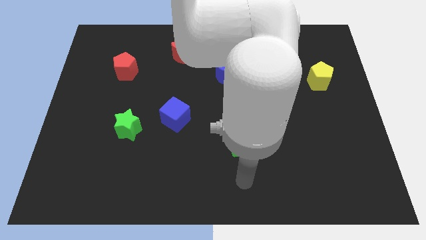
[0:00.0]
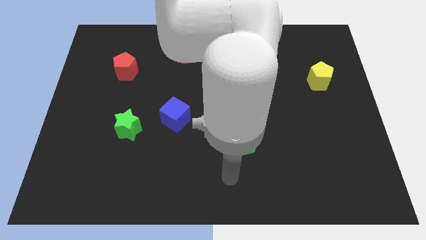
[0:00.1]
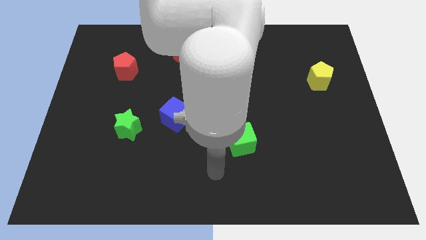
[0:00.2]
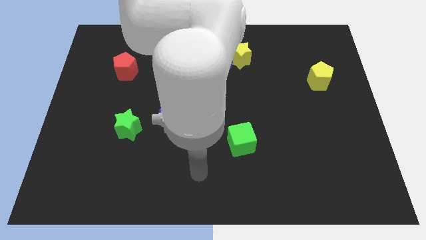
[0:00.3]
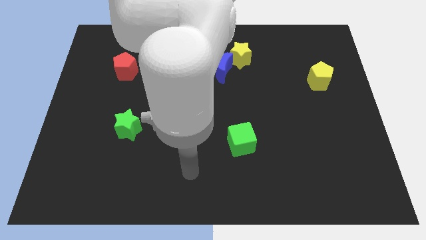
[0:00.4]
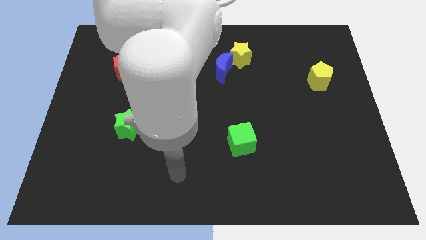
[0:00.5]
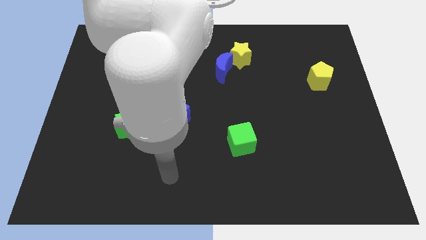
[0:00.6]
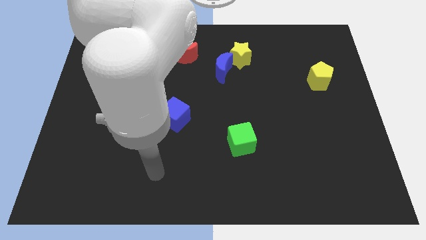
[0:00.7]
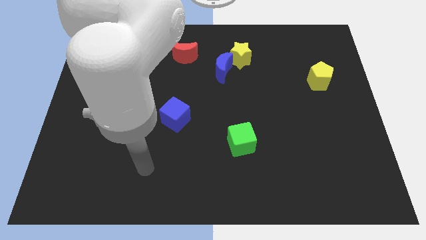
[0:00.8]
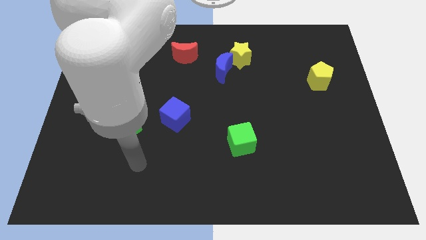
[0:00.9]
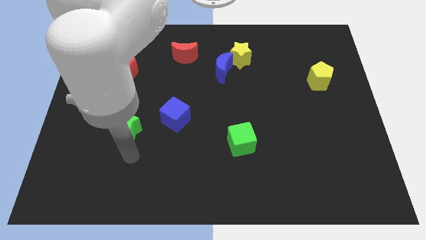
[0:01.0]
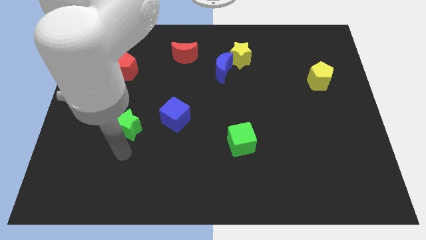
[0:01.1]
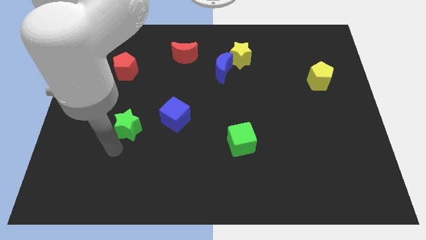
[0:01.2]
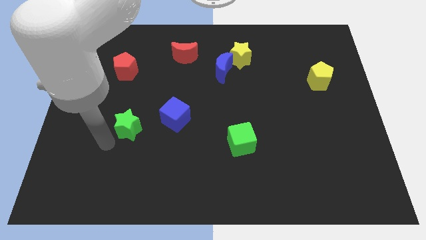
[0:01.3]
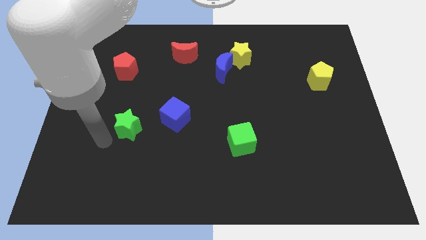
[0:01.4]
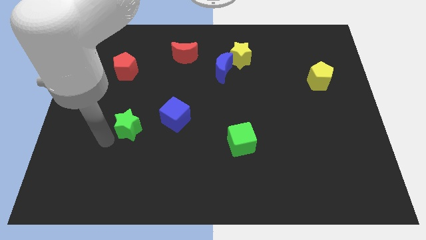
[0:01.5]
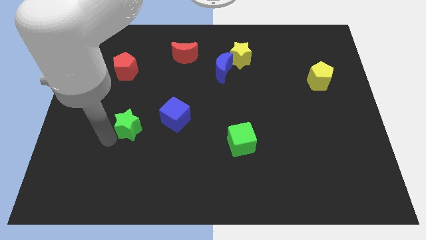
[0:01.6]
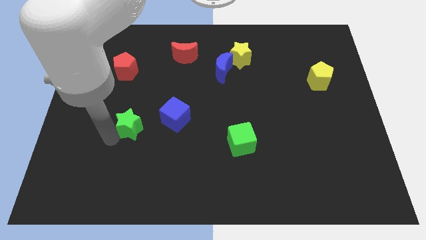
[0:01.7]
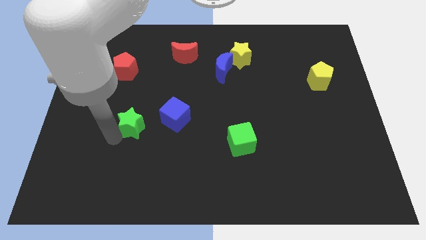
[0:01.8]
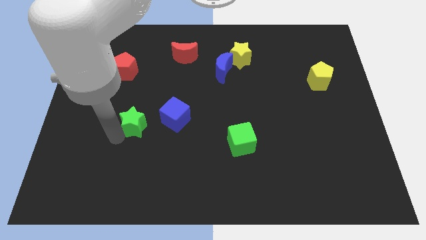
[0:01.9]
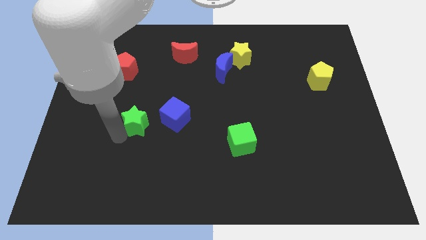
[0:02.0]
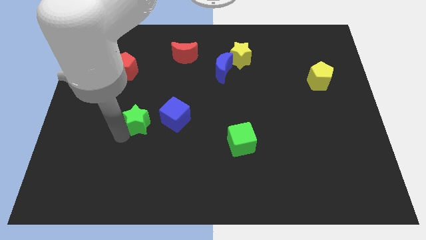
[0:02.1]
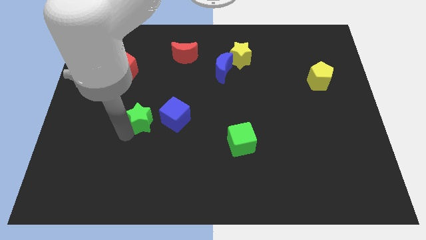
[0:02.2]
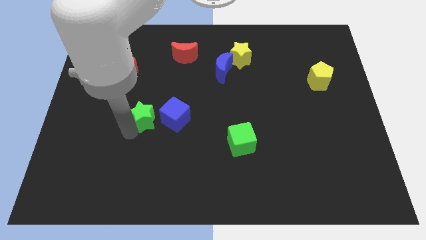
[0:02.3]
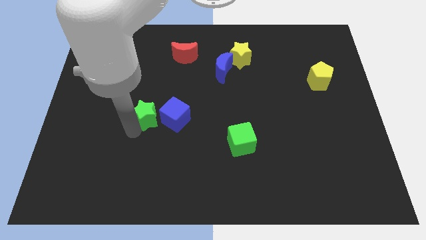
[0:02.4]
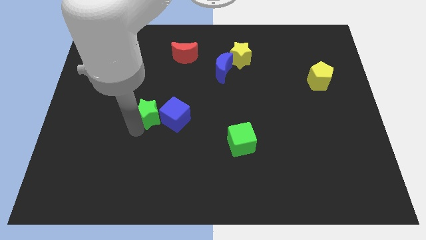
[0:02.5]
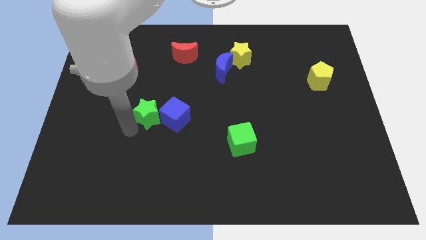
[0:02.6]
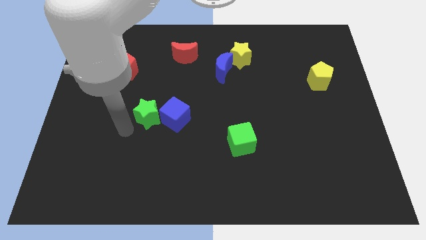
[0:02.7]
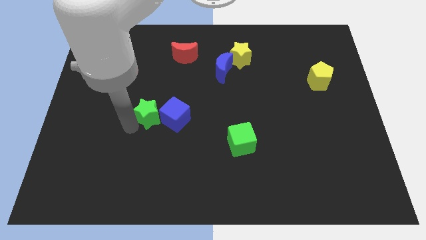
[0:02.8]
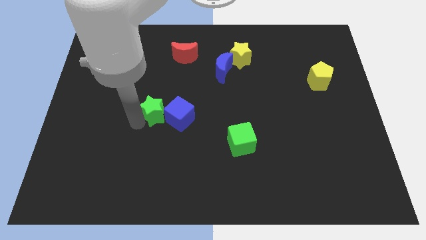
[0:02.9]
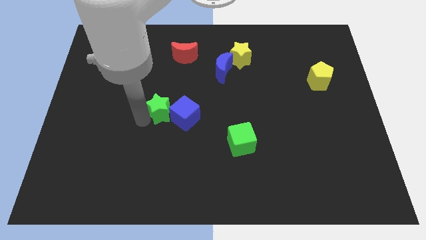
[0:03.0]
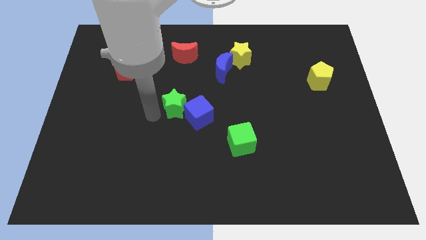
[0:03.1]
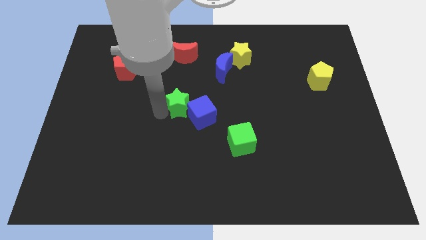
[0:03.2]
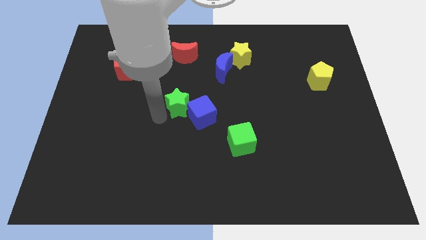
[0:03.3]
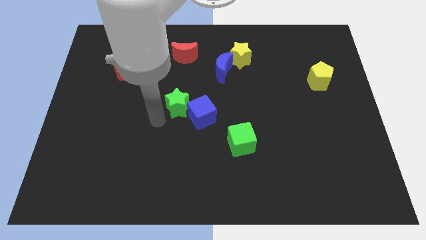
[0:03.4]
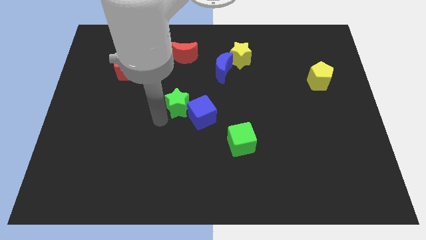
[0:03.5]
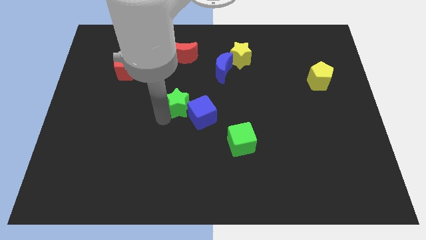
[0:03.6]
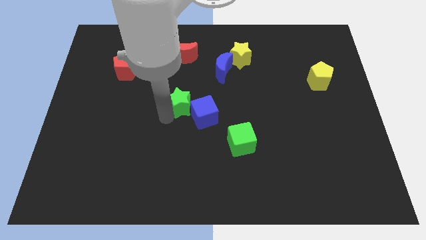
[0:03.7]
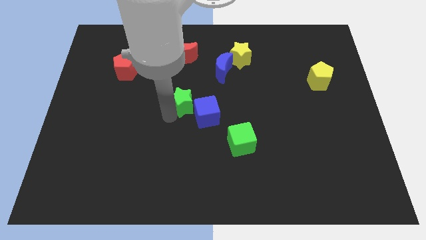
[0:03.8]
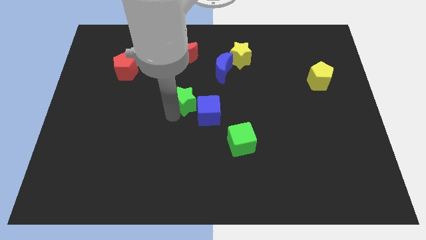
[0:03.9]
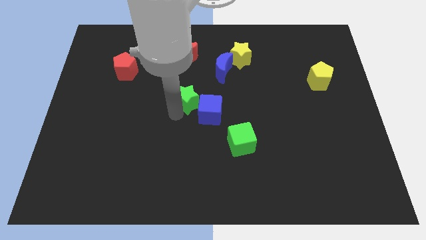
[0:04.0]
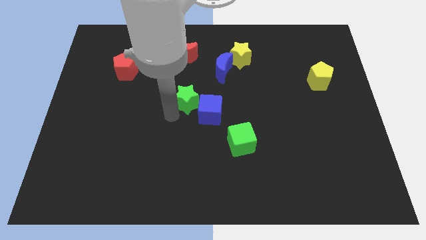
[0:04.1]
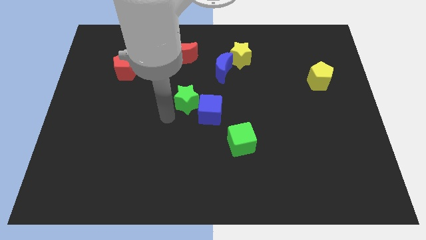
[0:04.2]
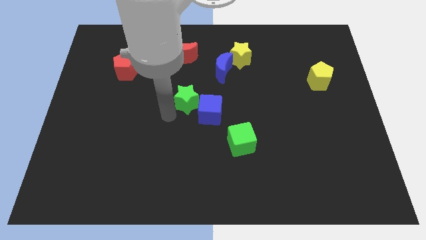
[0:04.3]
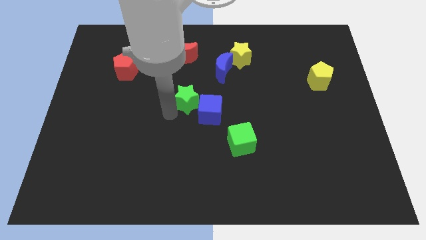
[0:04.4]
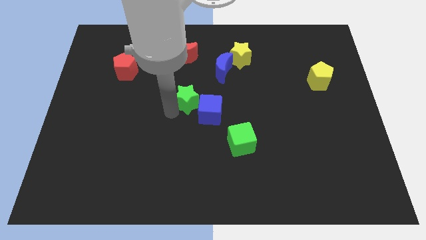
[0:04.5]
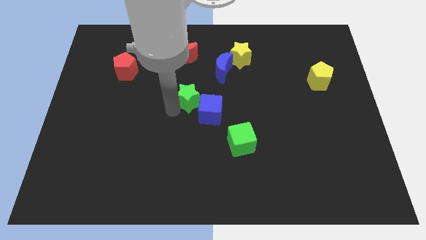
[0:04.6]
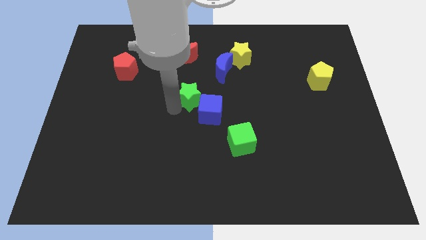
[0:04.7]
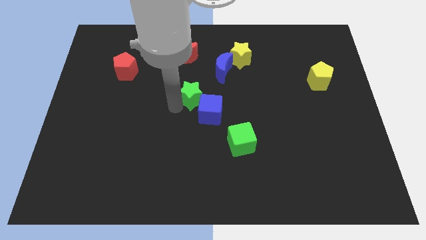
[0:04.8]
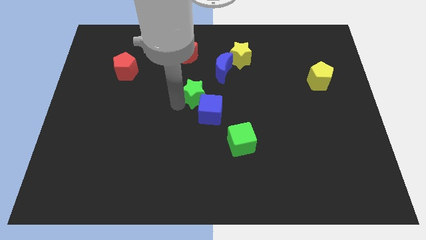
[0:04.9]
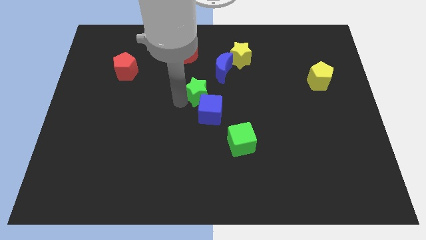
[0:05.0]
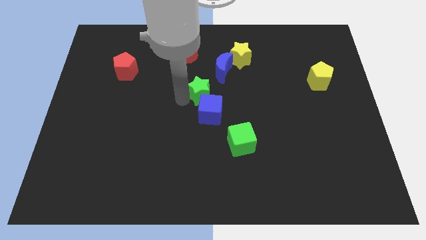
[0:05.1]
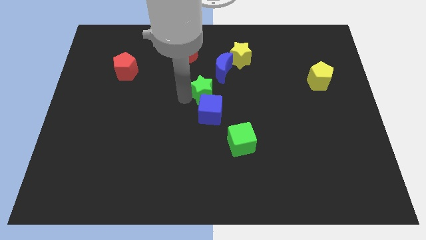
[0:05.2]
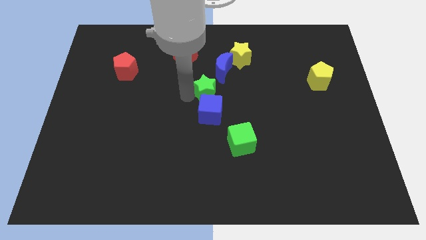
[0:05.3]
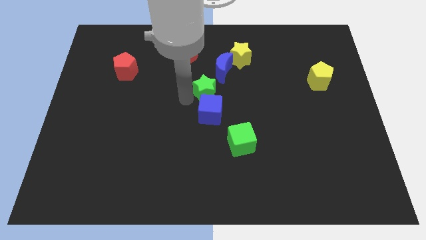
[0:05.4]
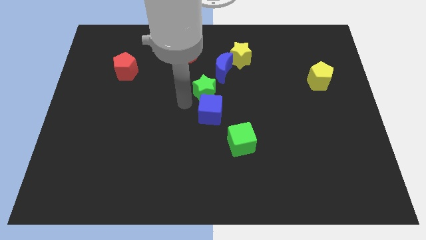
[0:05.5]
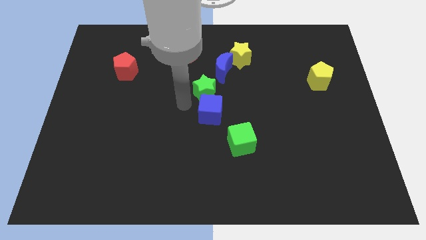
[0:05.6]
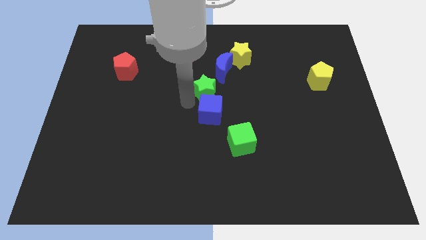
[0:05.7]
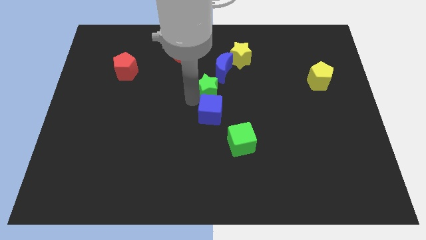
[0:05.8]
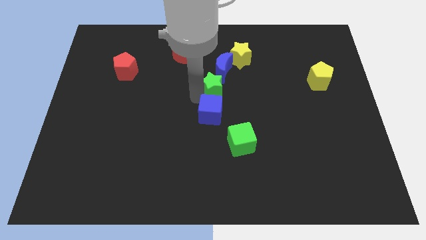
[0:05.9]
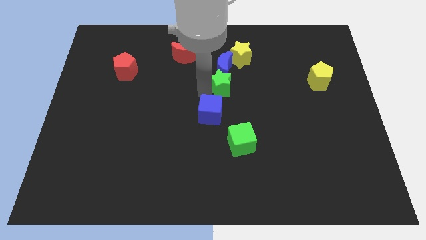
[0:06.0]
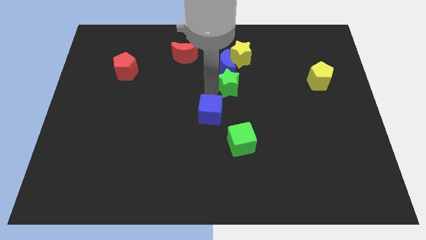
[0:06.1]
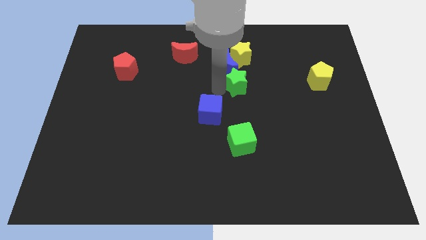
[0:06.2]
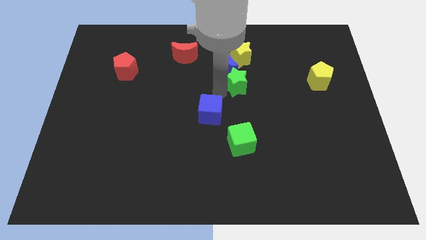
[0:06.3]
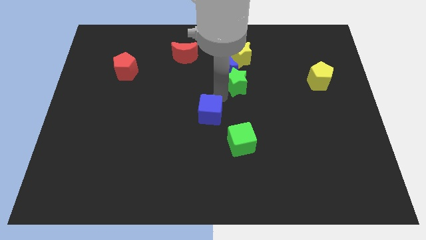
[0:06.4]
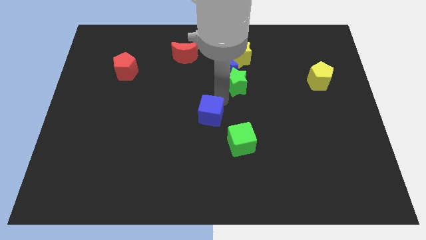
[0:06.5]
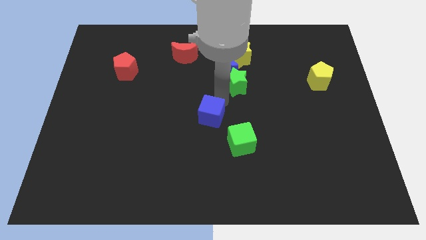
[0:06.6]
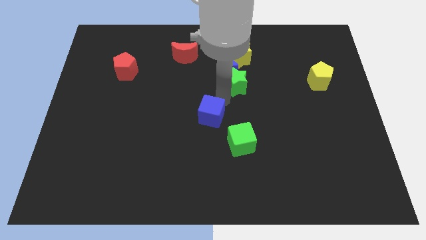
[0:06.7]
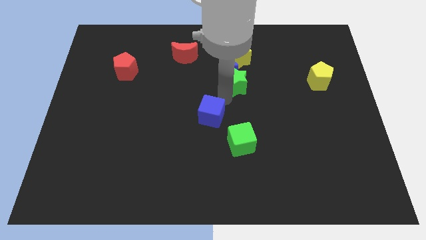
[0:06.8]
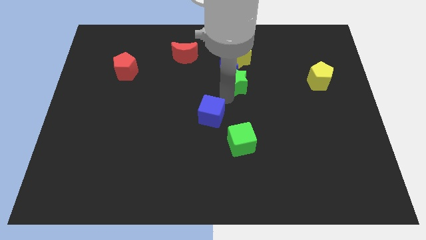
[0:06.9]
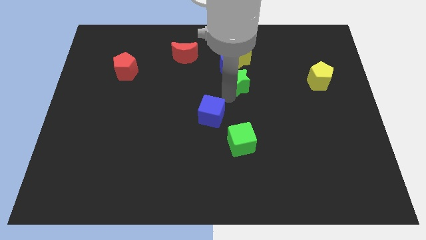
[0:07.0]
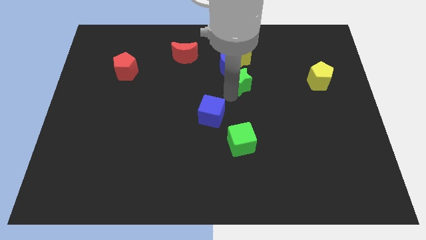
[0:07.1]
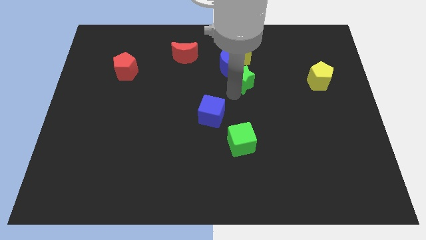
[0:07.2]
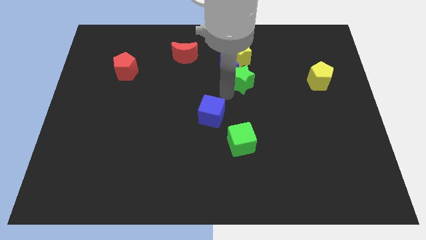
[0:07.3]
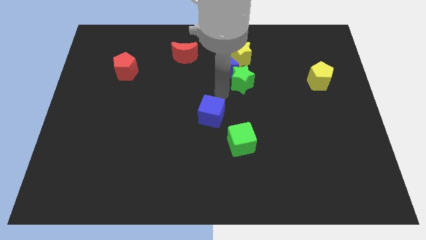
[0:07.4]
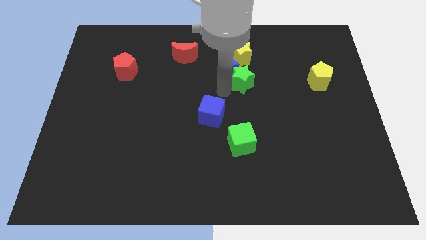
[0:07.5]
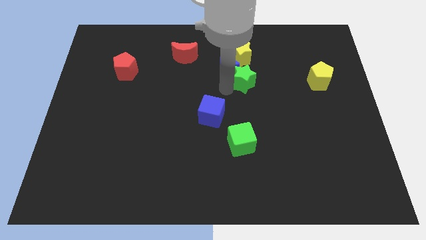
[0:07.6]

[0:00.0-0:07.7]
slide the green star right of the blue moon
